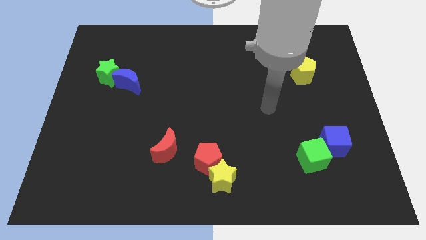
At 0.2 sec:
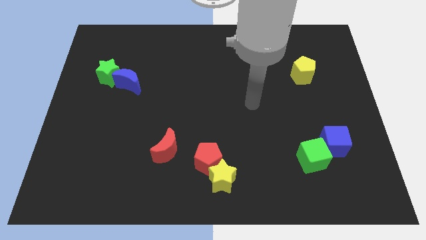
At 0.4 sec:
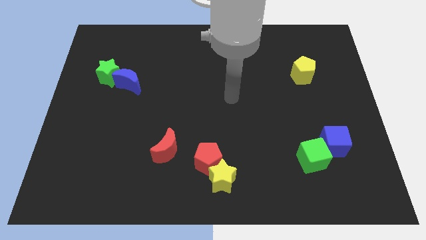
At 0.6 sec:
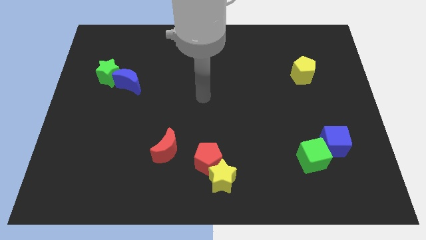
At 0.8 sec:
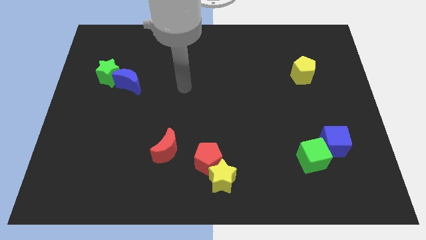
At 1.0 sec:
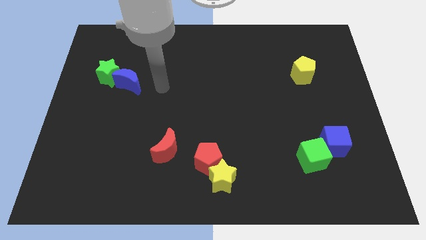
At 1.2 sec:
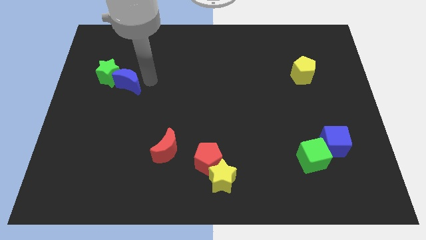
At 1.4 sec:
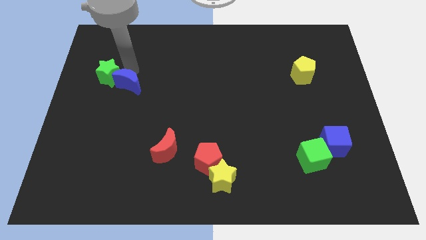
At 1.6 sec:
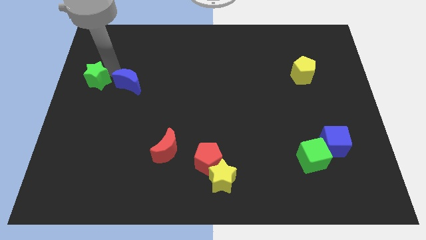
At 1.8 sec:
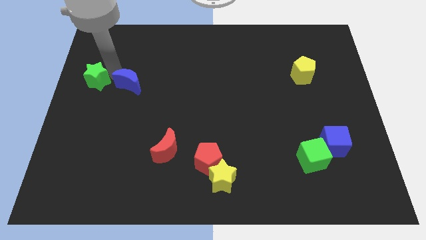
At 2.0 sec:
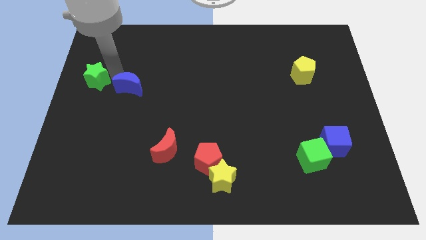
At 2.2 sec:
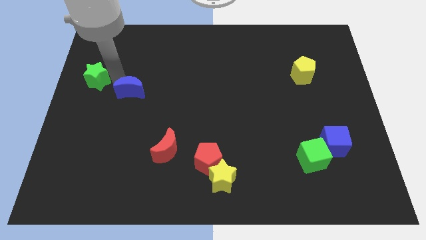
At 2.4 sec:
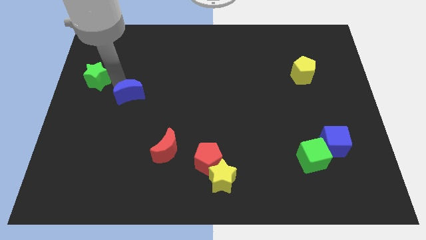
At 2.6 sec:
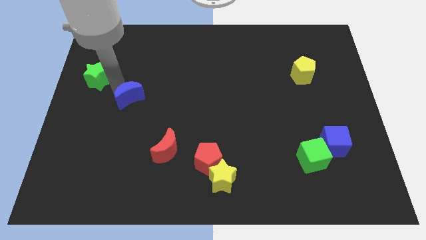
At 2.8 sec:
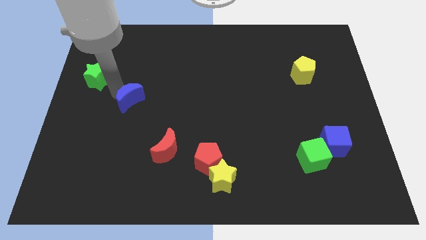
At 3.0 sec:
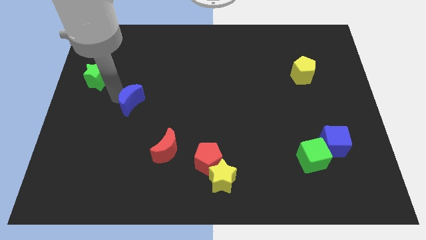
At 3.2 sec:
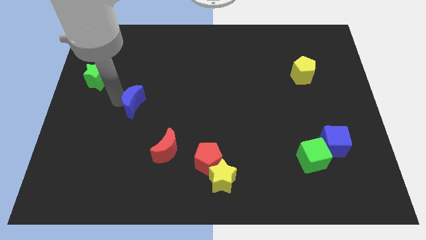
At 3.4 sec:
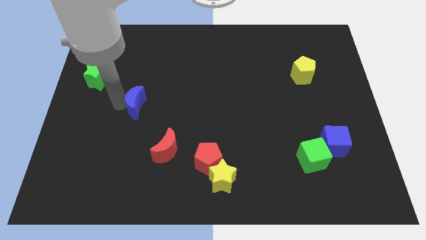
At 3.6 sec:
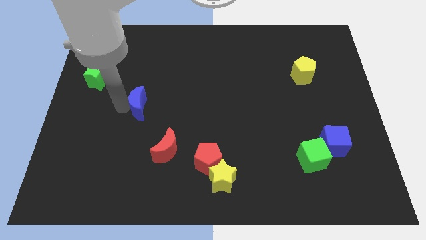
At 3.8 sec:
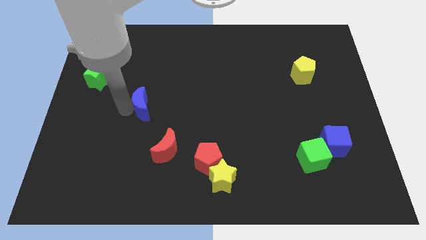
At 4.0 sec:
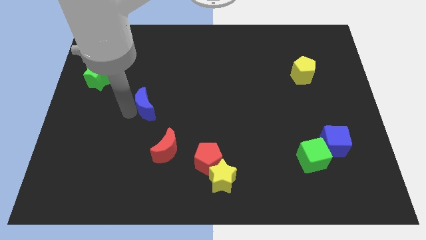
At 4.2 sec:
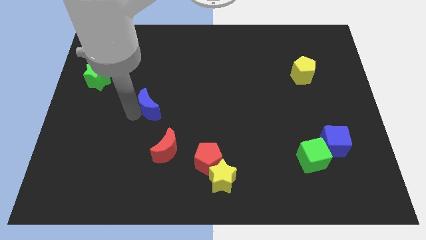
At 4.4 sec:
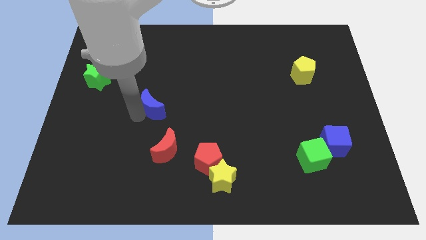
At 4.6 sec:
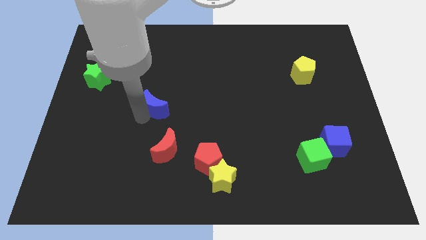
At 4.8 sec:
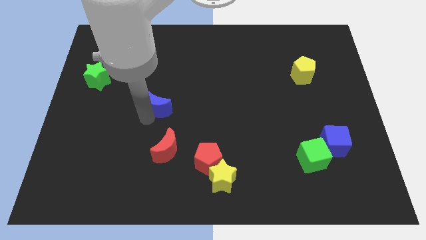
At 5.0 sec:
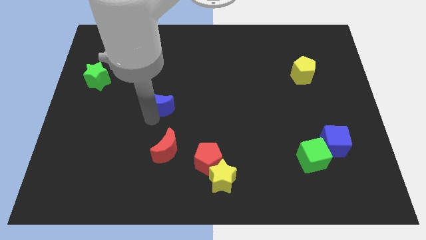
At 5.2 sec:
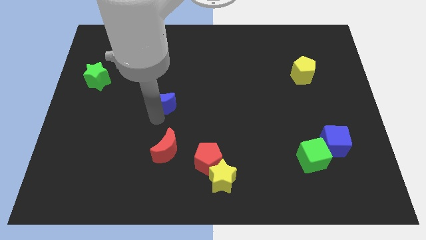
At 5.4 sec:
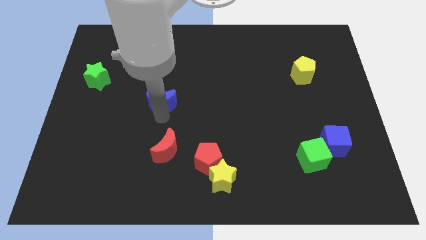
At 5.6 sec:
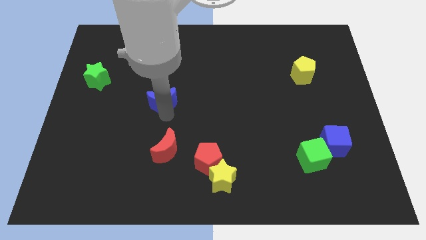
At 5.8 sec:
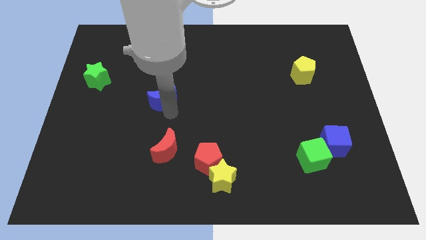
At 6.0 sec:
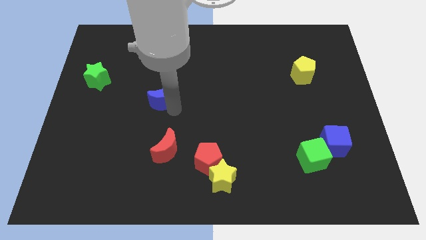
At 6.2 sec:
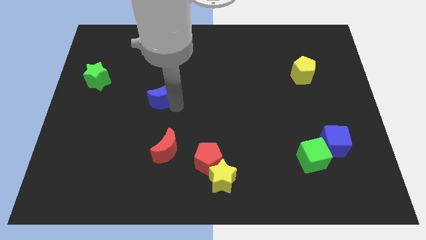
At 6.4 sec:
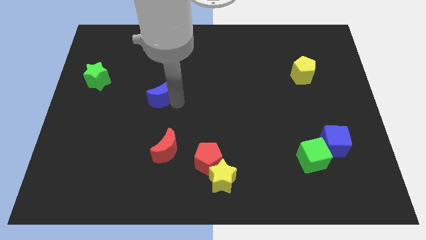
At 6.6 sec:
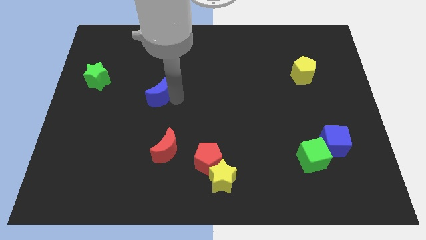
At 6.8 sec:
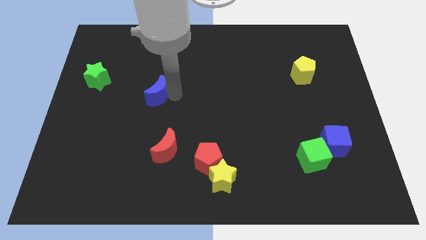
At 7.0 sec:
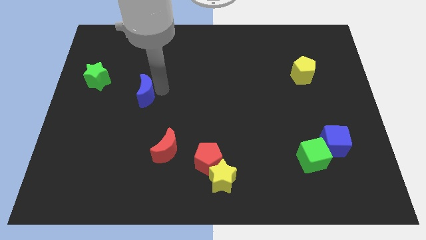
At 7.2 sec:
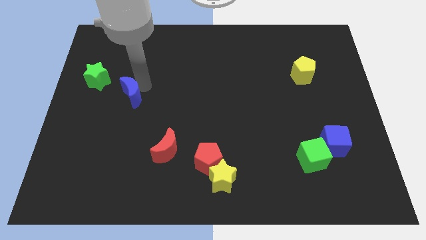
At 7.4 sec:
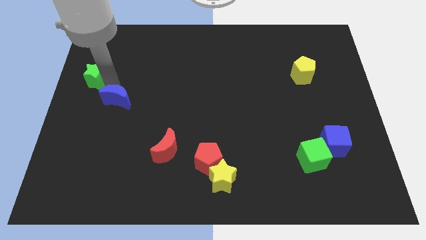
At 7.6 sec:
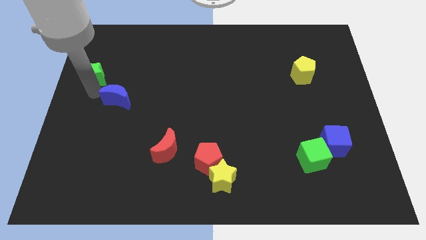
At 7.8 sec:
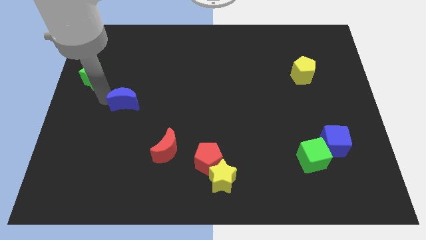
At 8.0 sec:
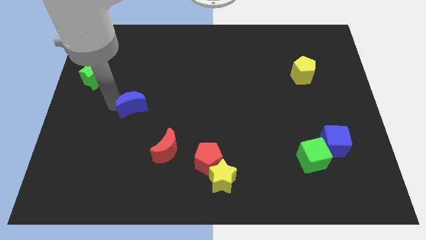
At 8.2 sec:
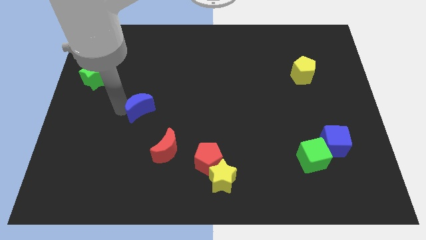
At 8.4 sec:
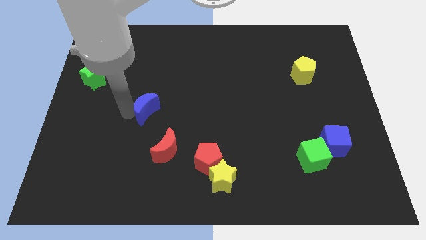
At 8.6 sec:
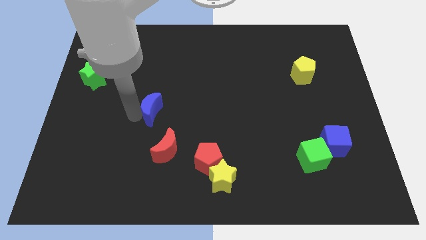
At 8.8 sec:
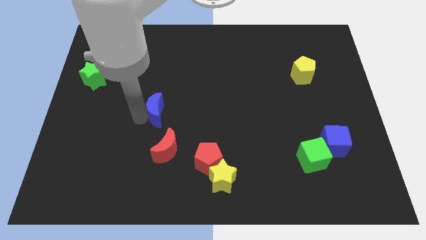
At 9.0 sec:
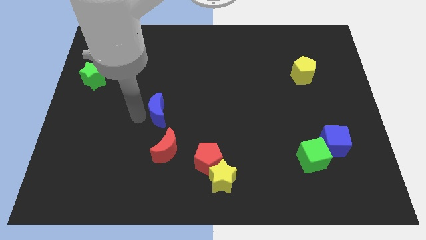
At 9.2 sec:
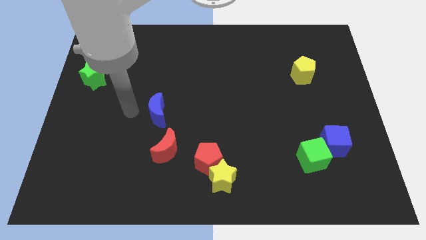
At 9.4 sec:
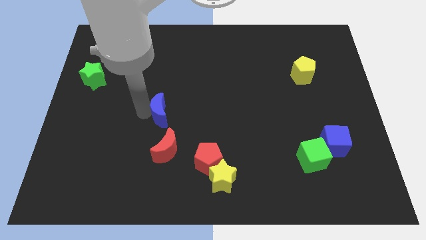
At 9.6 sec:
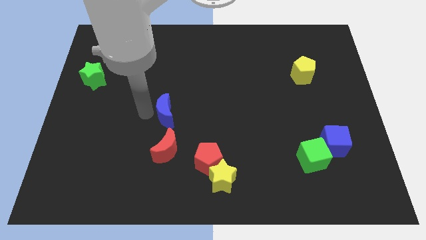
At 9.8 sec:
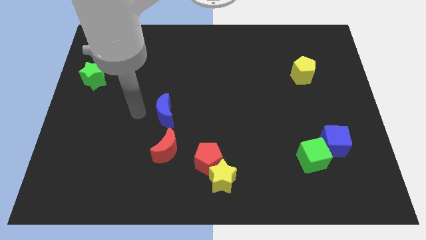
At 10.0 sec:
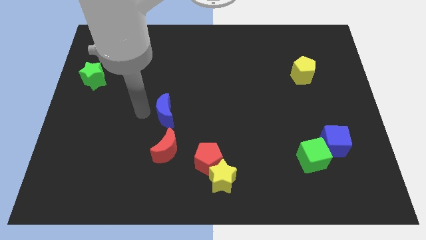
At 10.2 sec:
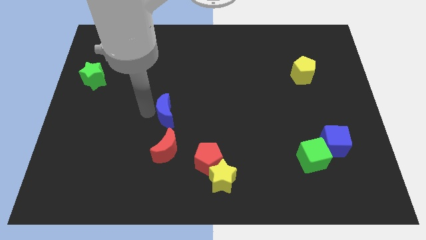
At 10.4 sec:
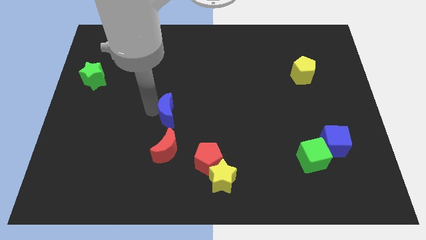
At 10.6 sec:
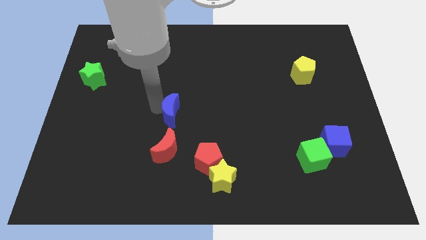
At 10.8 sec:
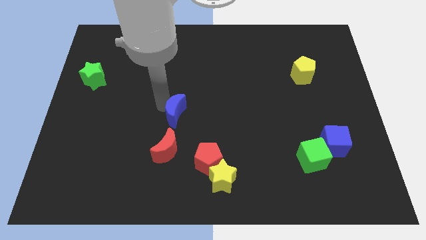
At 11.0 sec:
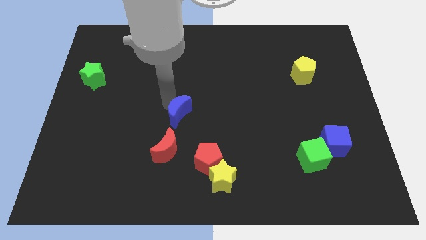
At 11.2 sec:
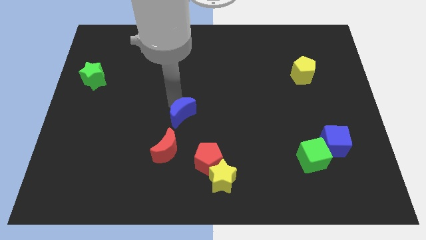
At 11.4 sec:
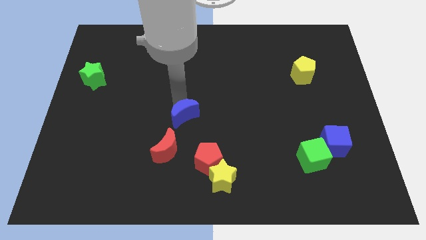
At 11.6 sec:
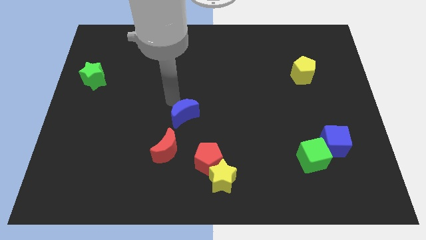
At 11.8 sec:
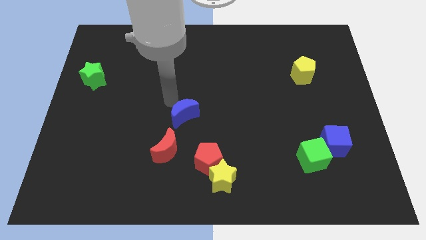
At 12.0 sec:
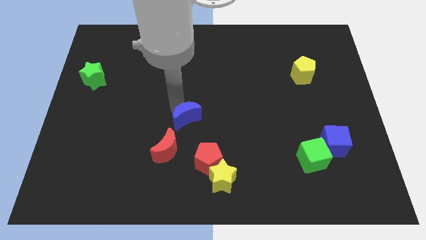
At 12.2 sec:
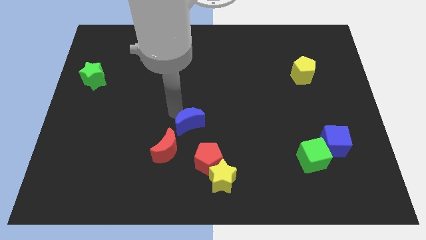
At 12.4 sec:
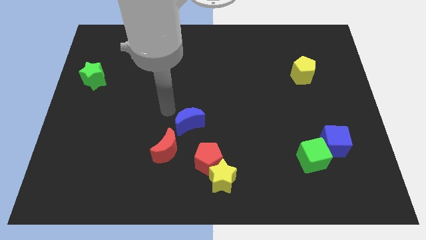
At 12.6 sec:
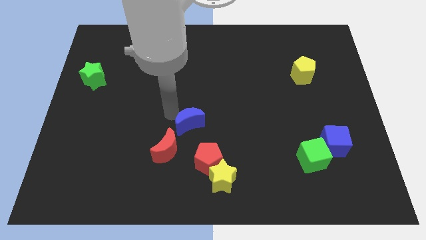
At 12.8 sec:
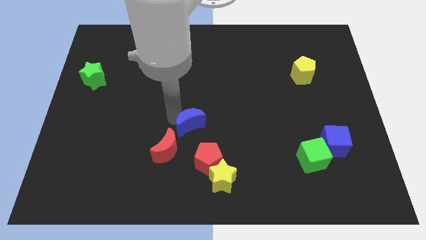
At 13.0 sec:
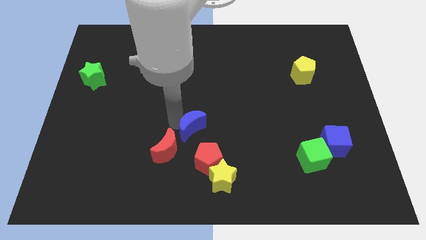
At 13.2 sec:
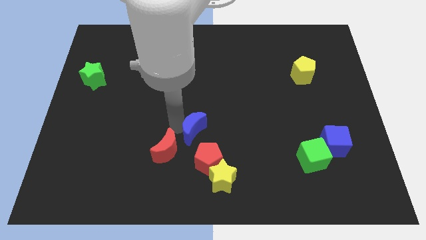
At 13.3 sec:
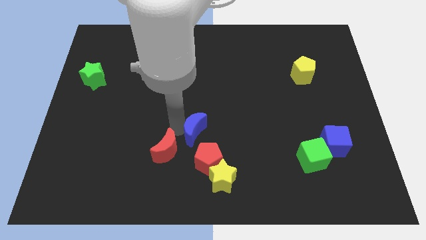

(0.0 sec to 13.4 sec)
slide the blue moon to the right of the red moon

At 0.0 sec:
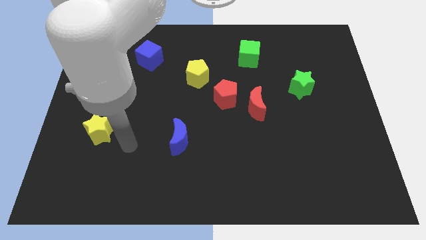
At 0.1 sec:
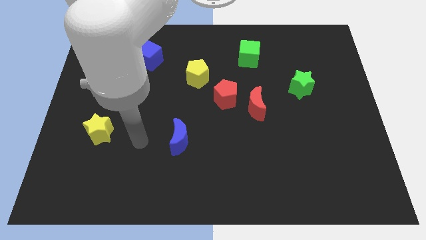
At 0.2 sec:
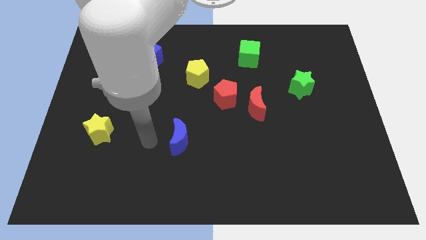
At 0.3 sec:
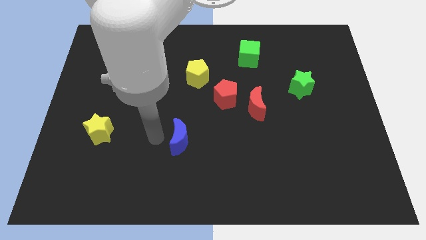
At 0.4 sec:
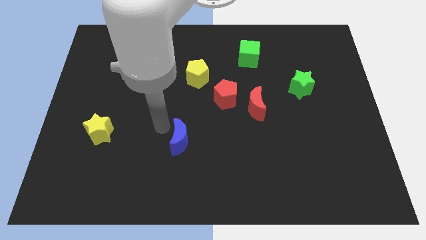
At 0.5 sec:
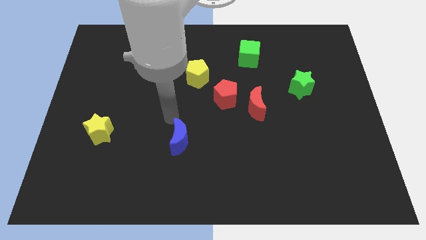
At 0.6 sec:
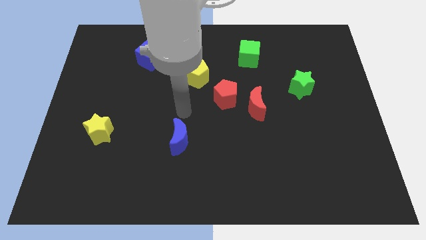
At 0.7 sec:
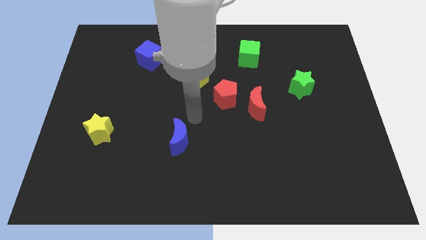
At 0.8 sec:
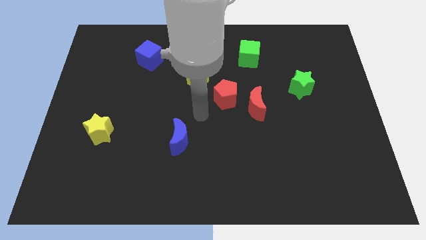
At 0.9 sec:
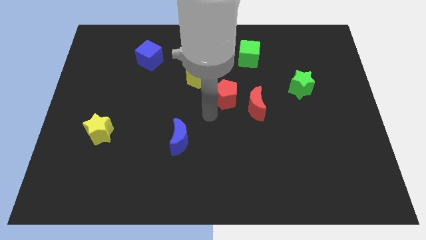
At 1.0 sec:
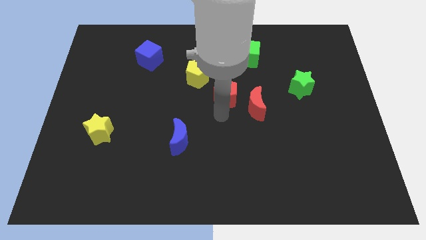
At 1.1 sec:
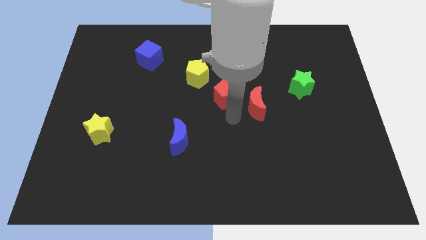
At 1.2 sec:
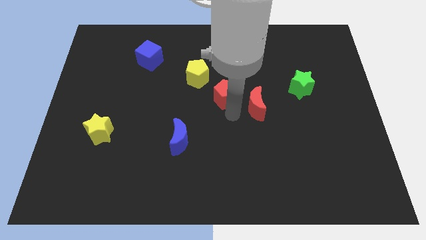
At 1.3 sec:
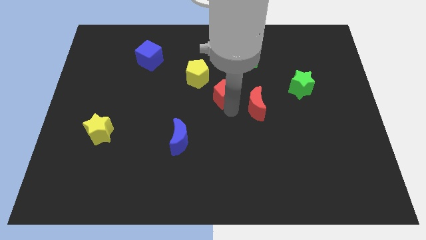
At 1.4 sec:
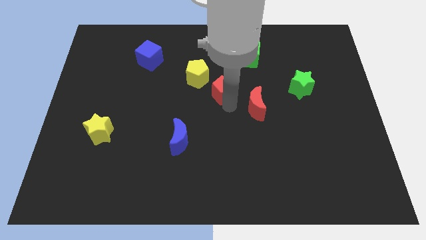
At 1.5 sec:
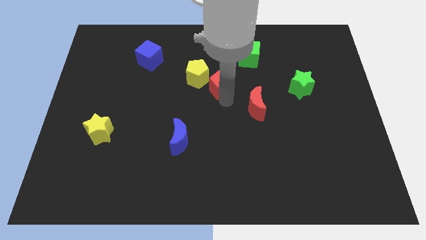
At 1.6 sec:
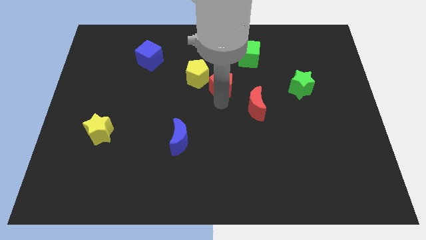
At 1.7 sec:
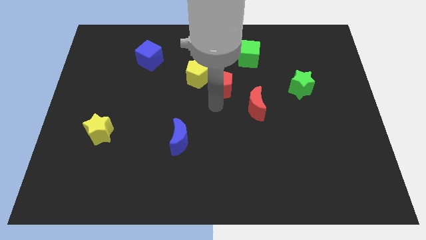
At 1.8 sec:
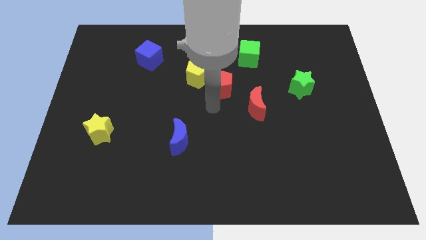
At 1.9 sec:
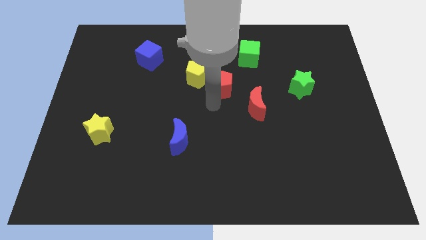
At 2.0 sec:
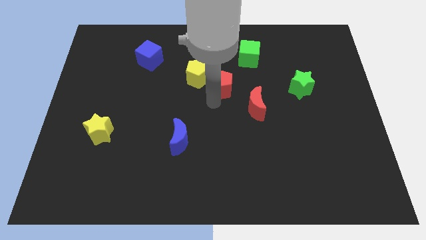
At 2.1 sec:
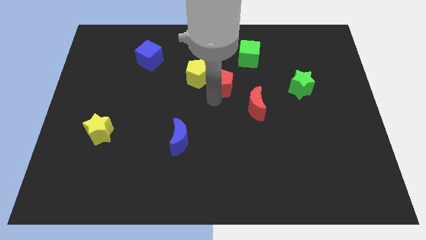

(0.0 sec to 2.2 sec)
move the red pentagon to the bottom left side of the green cube
